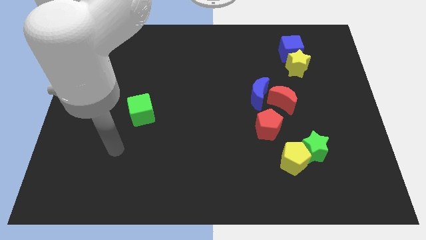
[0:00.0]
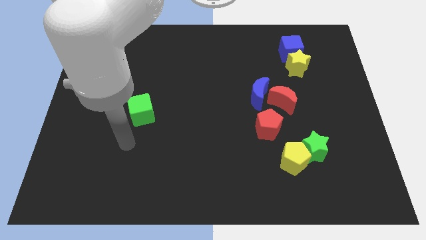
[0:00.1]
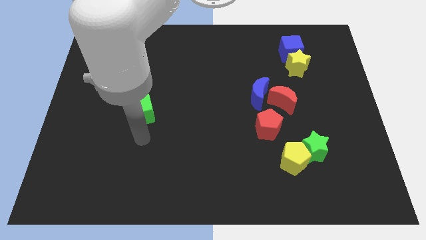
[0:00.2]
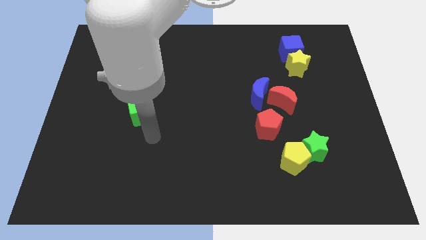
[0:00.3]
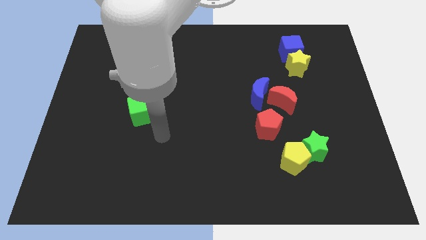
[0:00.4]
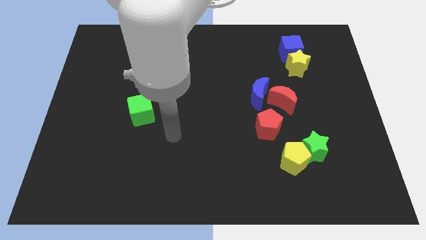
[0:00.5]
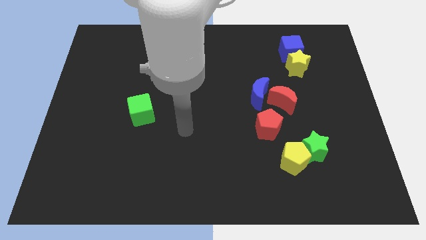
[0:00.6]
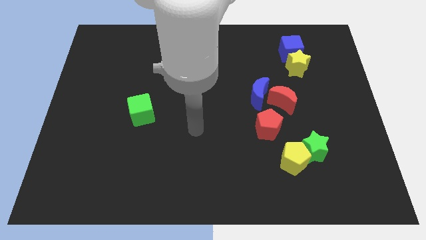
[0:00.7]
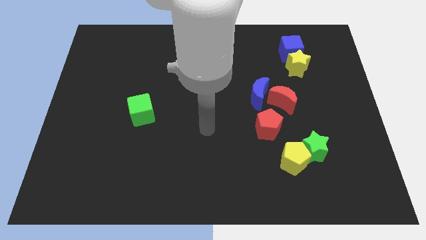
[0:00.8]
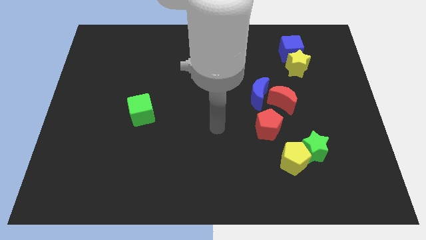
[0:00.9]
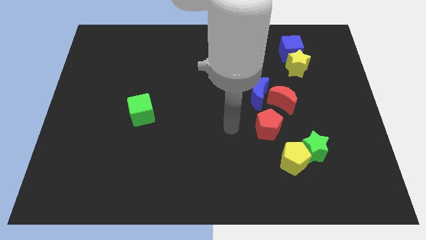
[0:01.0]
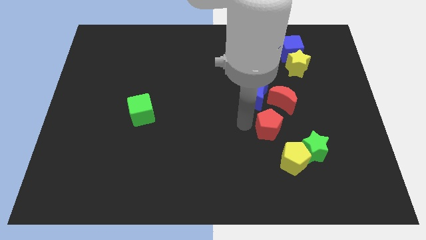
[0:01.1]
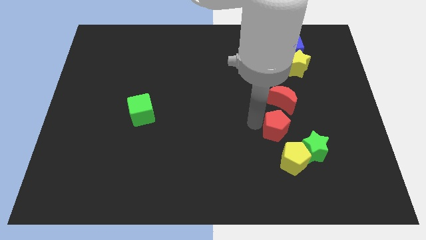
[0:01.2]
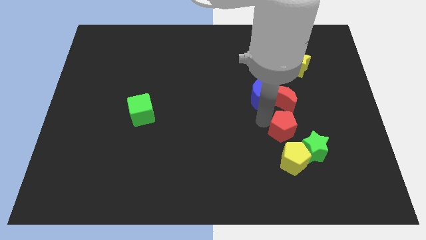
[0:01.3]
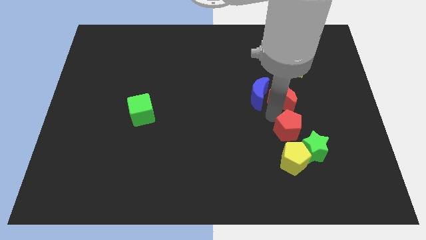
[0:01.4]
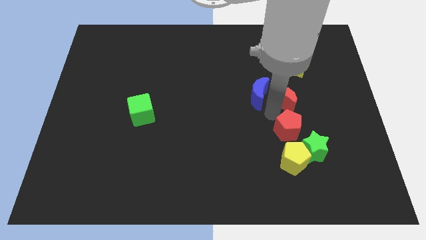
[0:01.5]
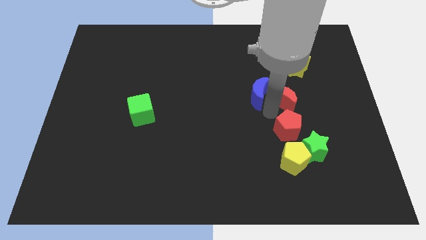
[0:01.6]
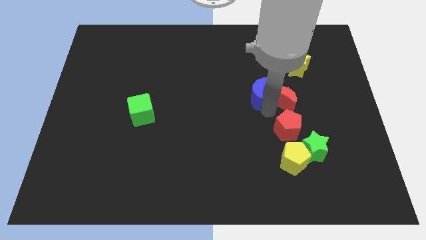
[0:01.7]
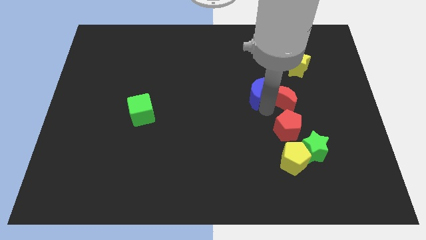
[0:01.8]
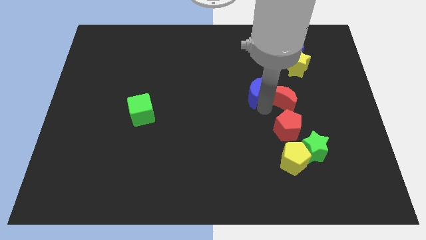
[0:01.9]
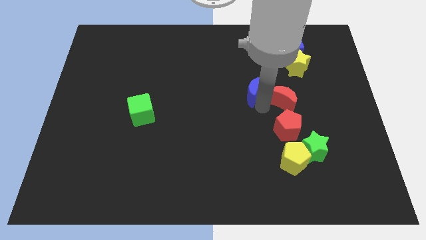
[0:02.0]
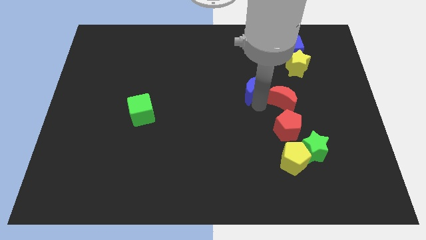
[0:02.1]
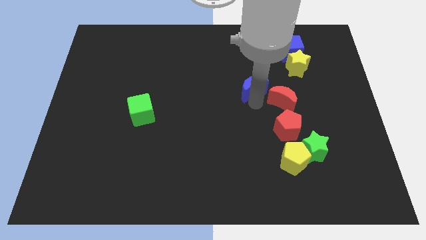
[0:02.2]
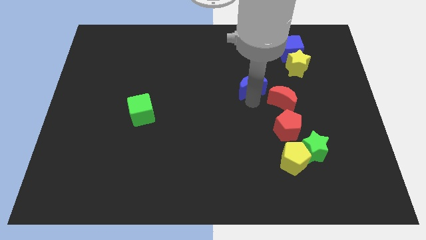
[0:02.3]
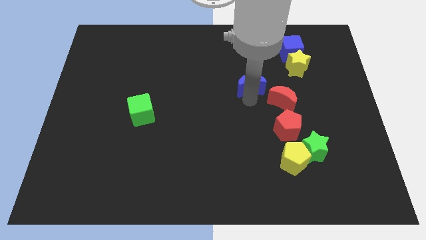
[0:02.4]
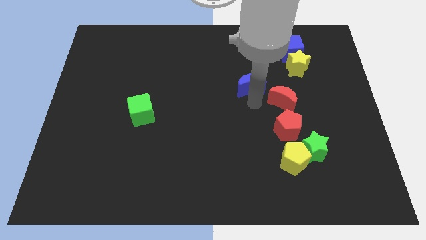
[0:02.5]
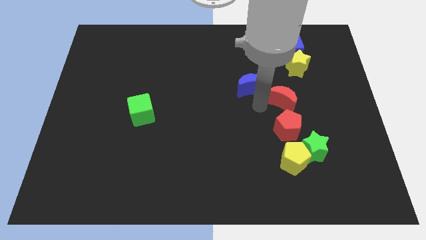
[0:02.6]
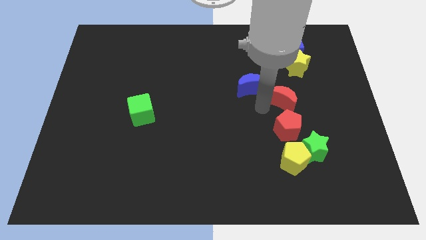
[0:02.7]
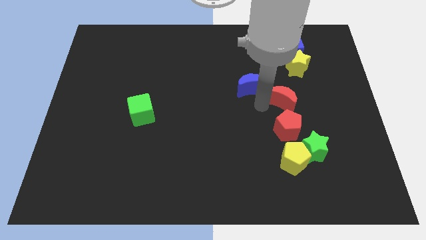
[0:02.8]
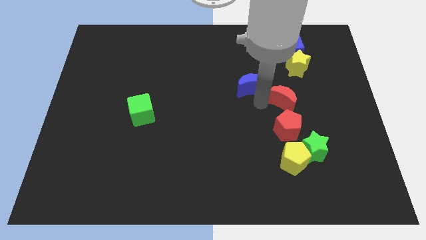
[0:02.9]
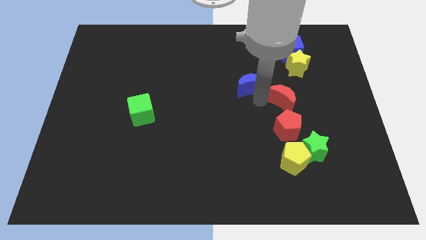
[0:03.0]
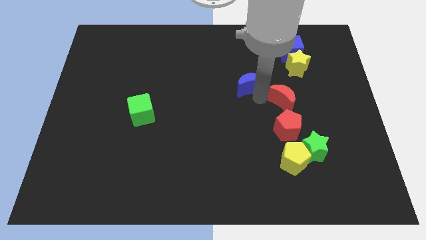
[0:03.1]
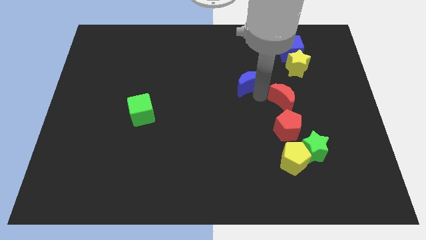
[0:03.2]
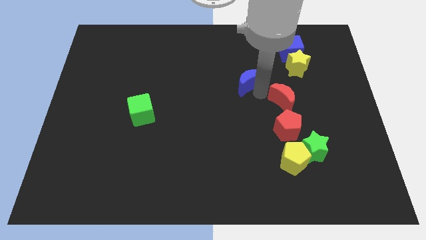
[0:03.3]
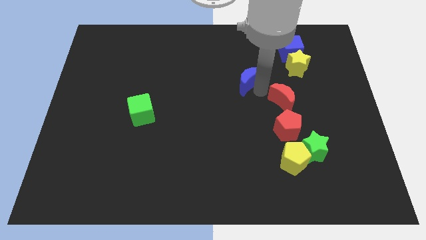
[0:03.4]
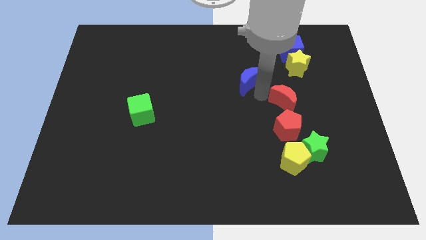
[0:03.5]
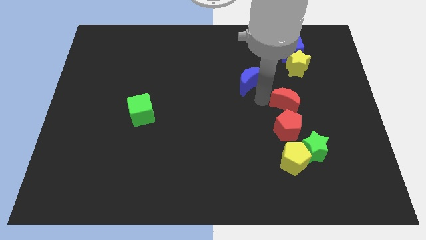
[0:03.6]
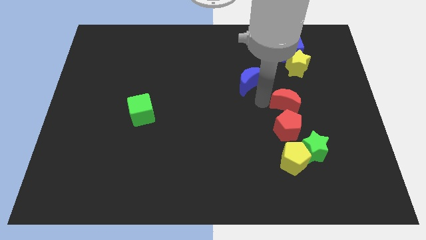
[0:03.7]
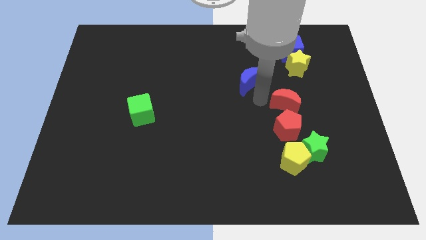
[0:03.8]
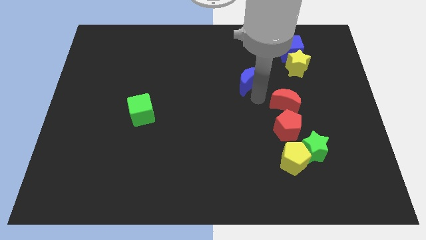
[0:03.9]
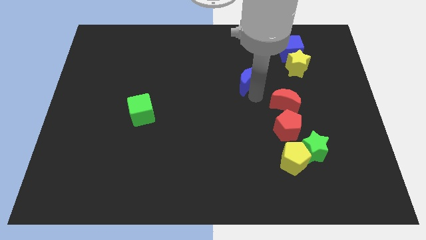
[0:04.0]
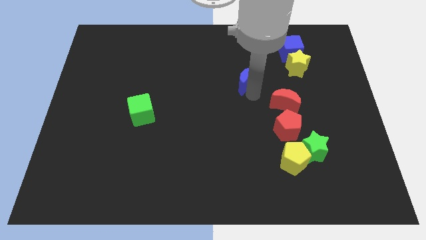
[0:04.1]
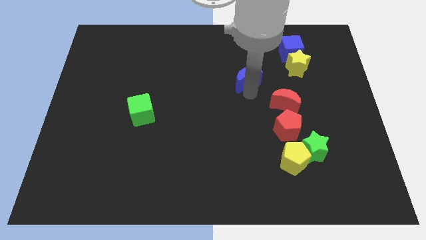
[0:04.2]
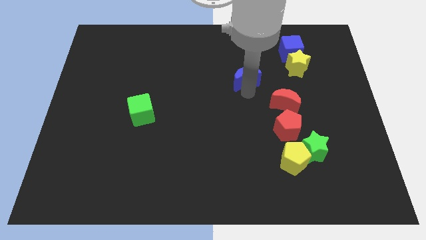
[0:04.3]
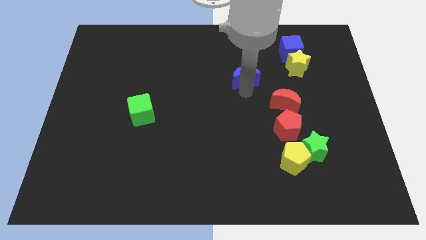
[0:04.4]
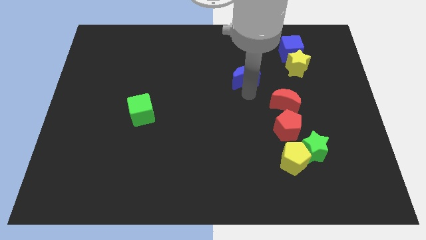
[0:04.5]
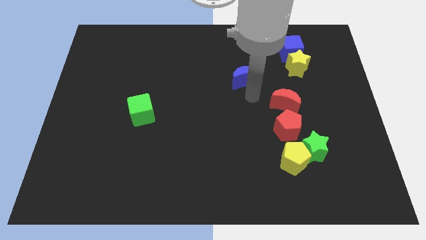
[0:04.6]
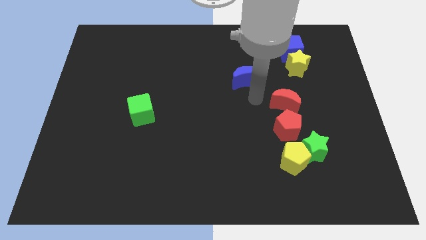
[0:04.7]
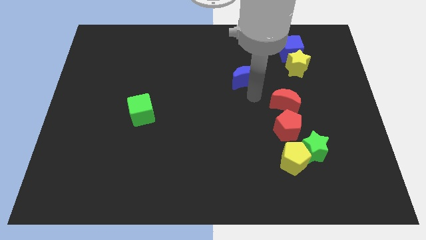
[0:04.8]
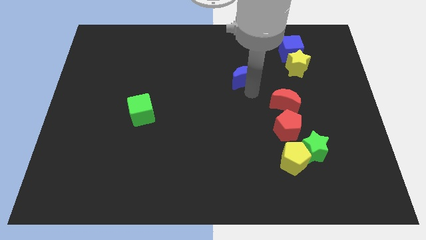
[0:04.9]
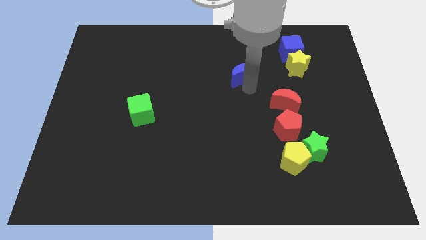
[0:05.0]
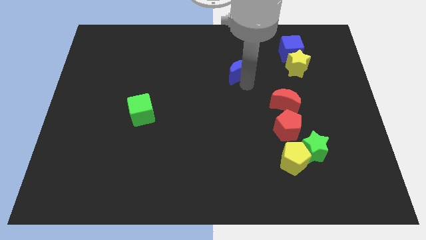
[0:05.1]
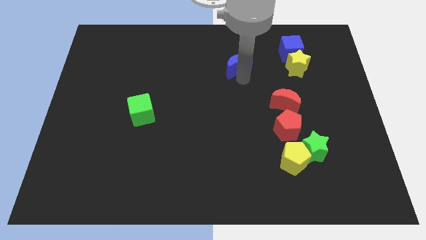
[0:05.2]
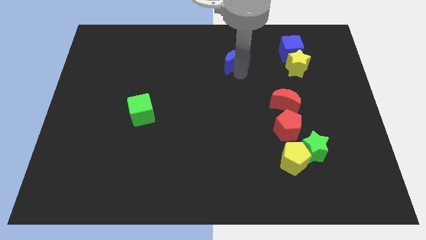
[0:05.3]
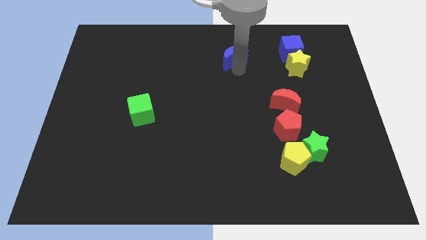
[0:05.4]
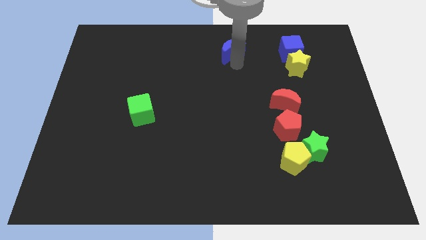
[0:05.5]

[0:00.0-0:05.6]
move the blue moon to the towards your base

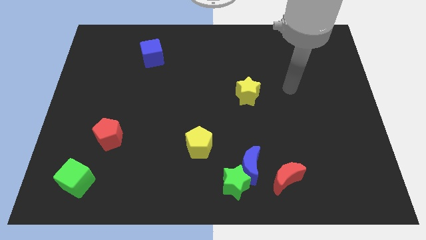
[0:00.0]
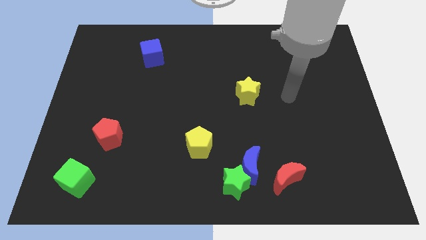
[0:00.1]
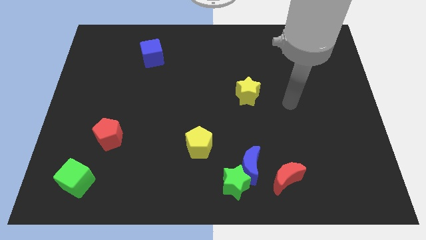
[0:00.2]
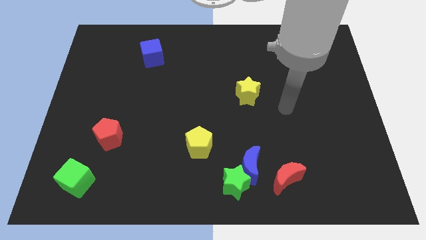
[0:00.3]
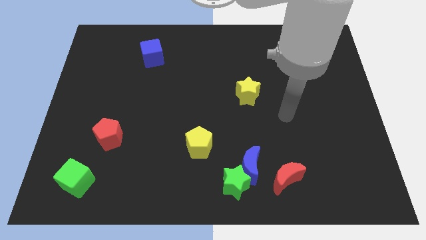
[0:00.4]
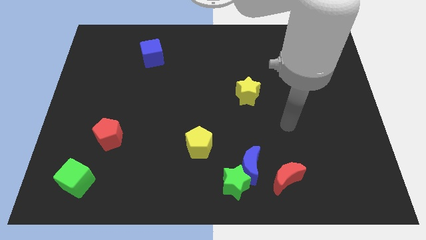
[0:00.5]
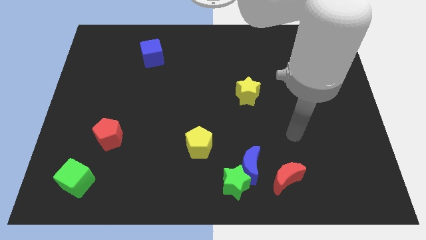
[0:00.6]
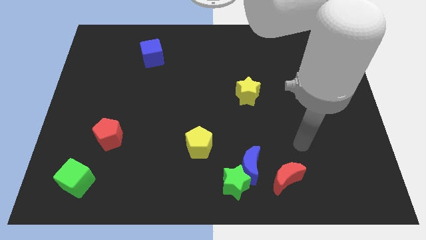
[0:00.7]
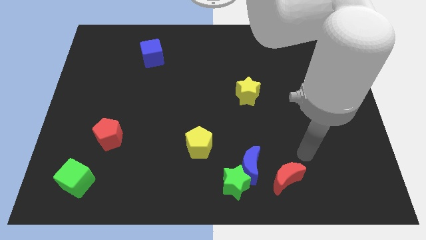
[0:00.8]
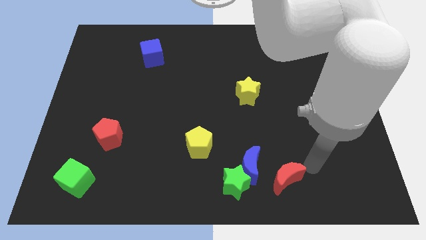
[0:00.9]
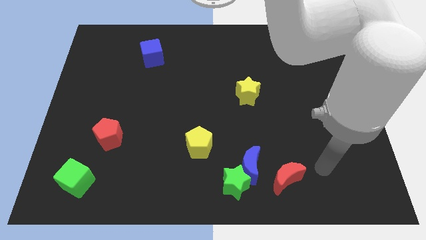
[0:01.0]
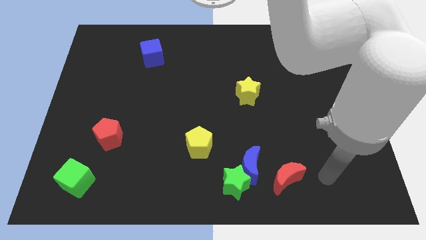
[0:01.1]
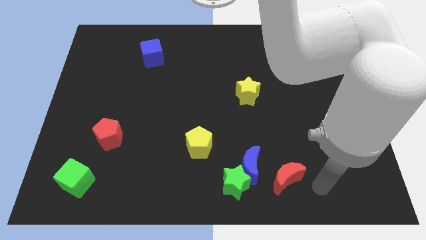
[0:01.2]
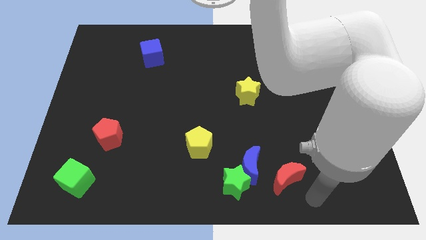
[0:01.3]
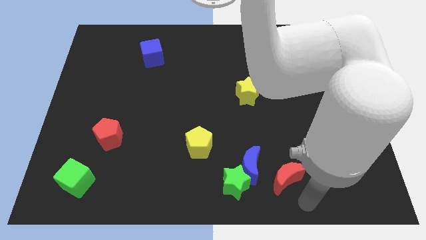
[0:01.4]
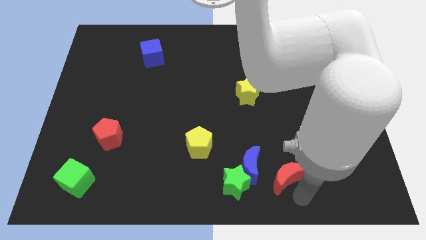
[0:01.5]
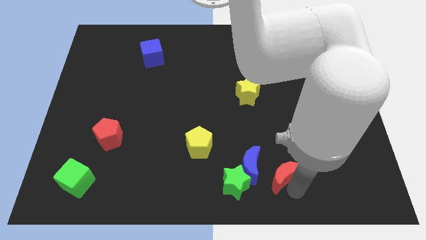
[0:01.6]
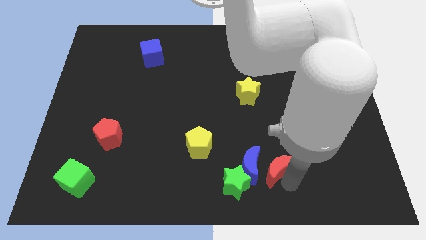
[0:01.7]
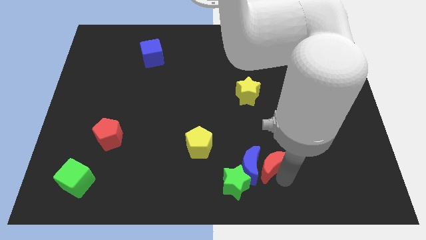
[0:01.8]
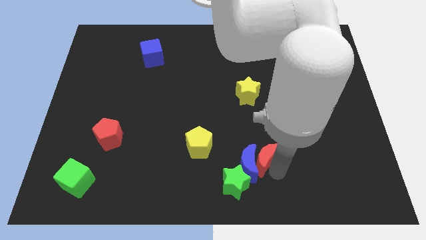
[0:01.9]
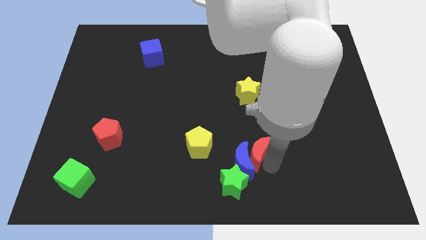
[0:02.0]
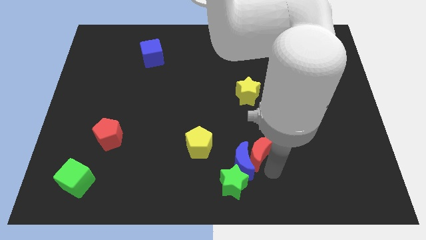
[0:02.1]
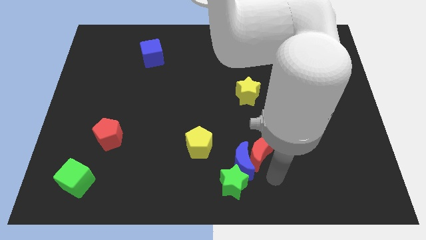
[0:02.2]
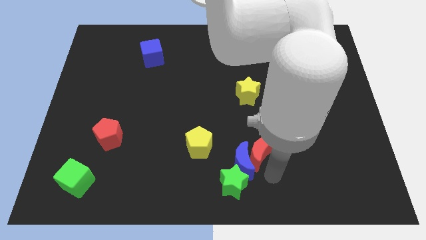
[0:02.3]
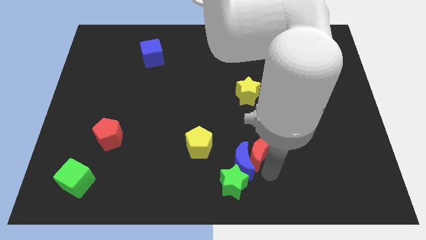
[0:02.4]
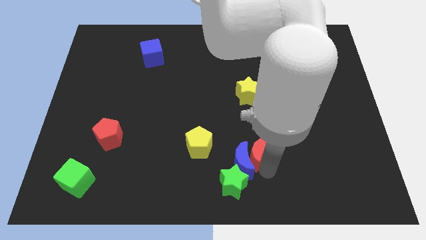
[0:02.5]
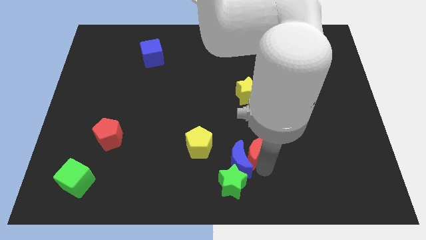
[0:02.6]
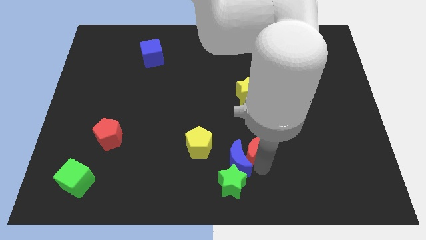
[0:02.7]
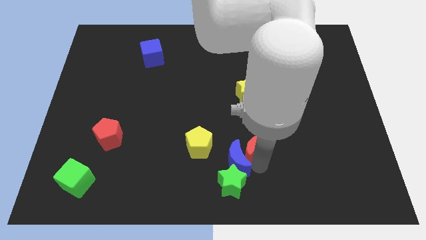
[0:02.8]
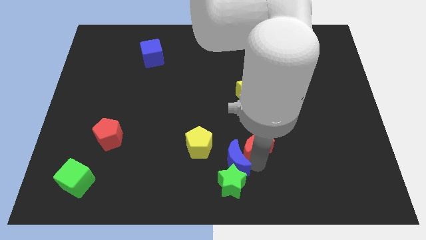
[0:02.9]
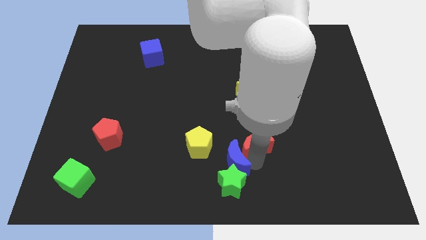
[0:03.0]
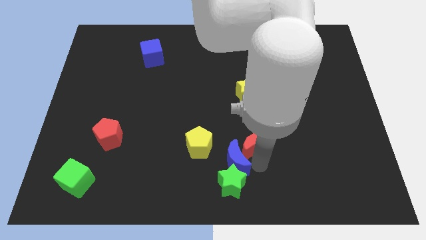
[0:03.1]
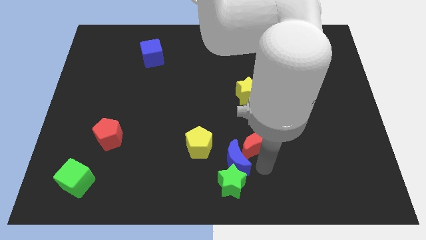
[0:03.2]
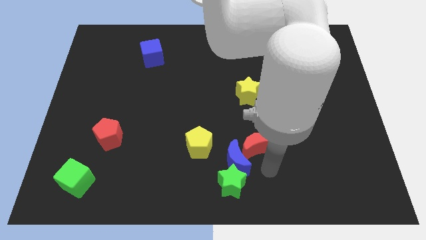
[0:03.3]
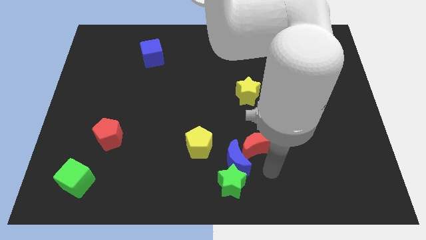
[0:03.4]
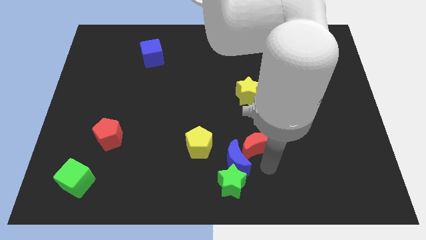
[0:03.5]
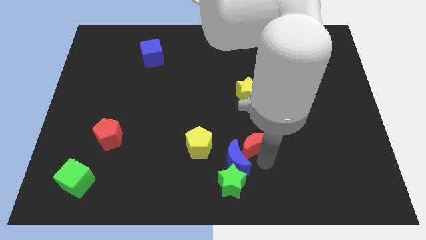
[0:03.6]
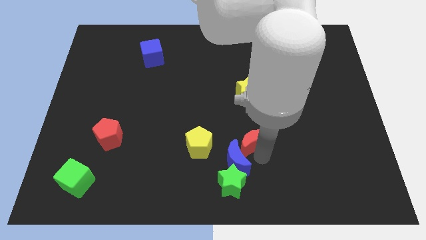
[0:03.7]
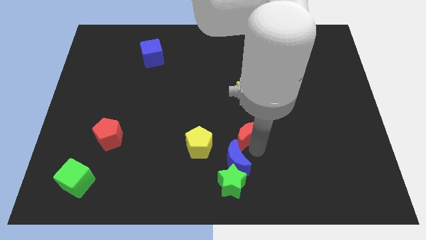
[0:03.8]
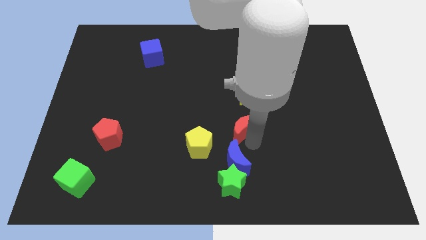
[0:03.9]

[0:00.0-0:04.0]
push the red moon to the middle
